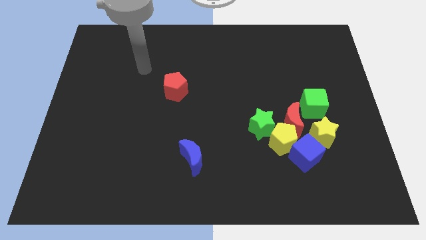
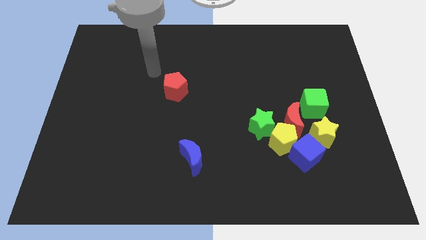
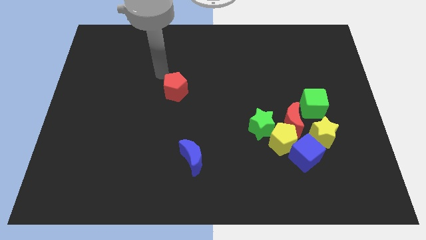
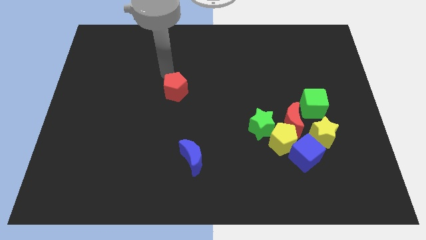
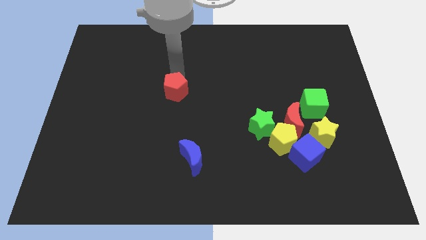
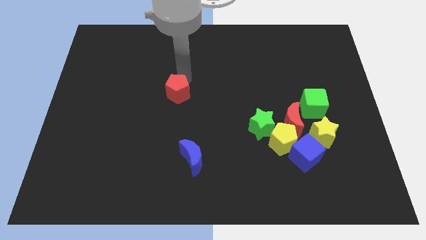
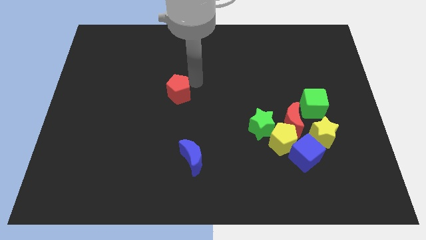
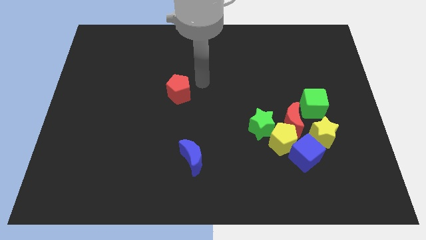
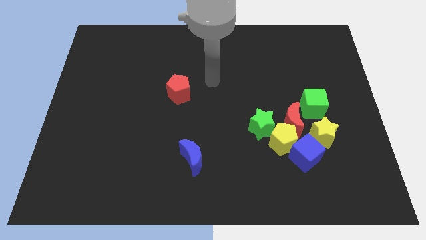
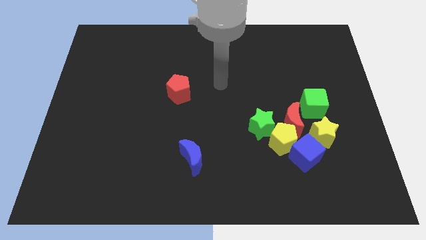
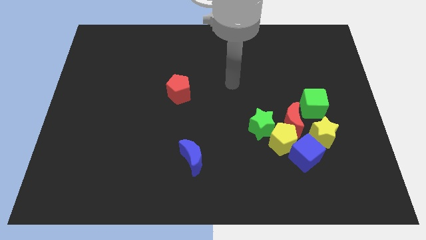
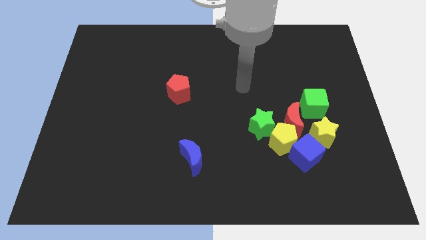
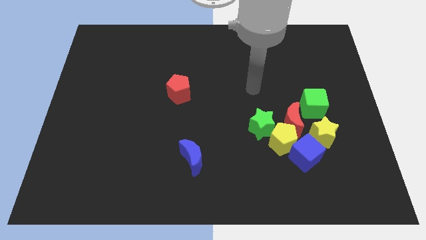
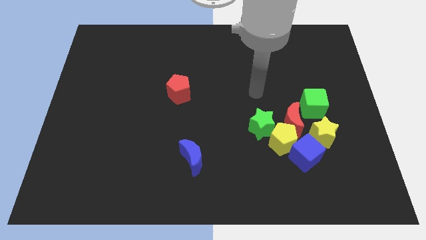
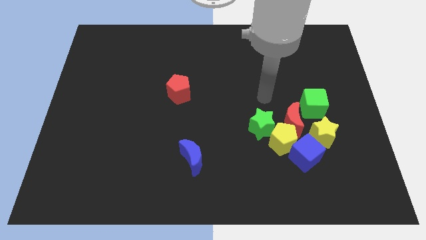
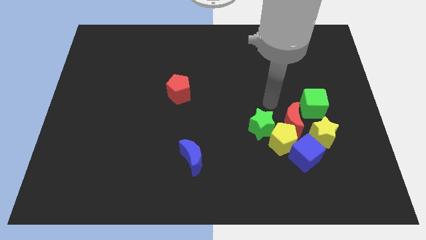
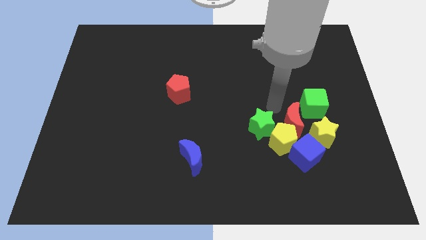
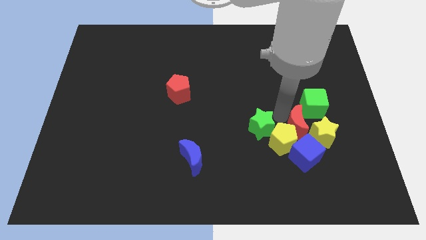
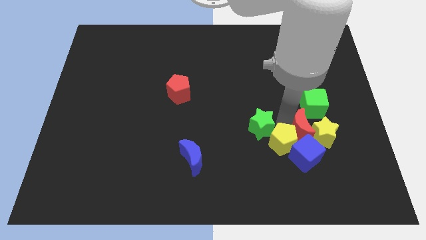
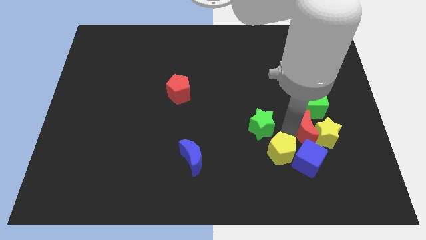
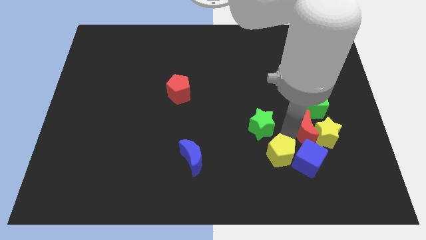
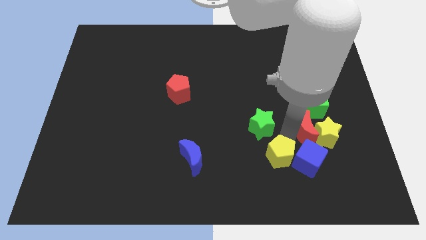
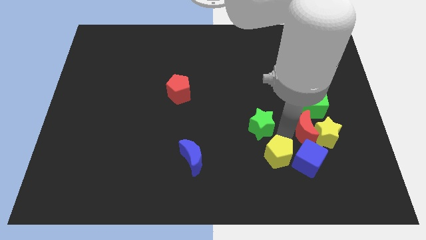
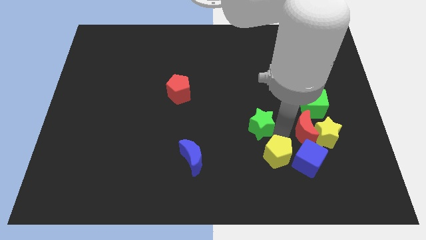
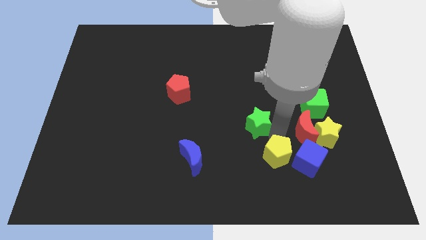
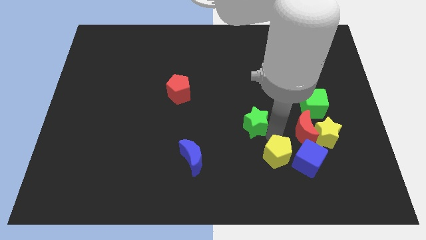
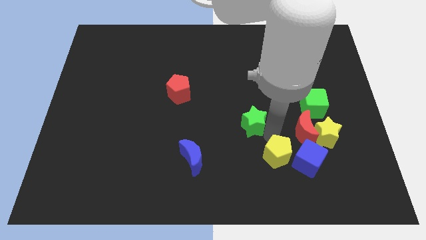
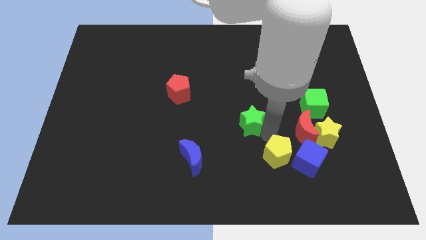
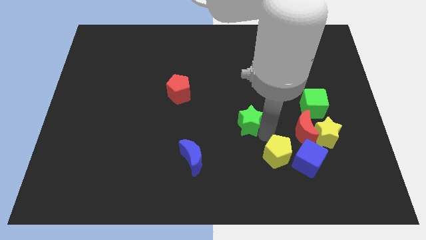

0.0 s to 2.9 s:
pull the green star apart from the yellow pentagon and red moon

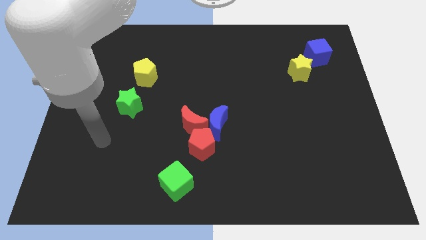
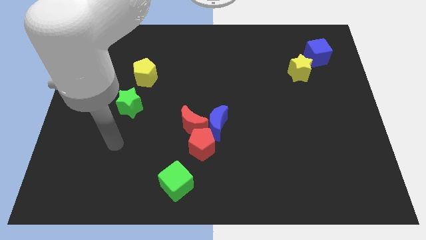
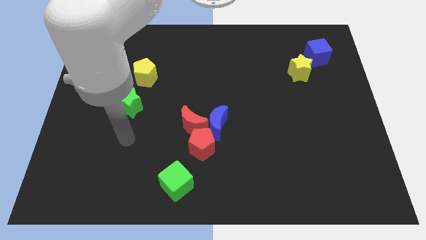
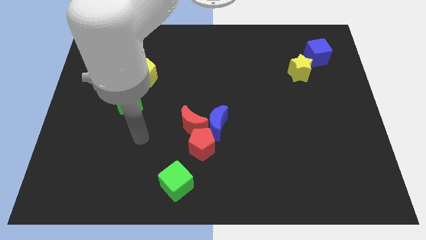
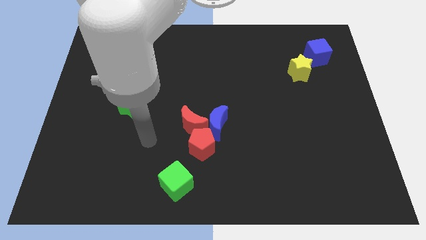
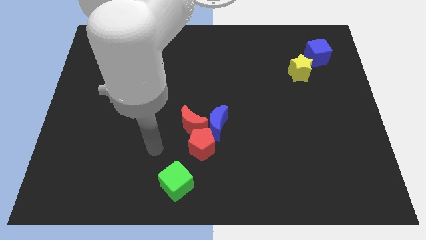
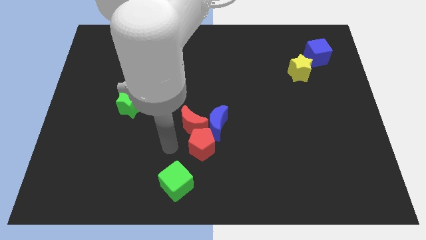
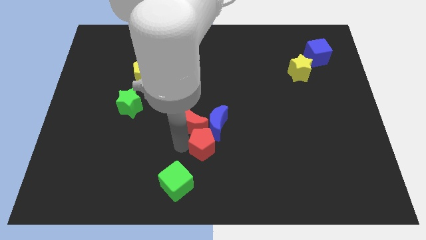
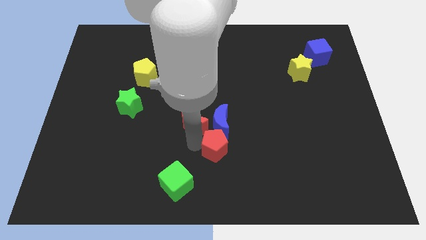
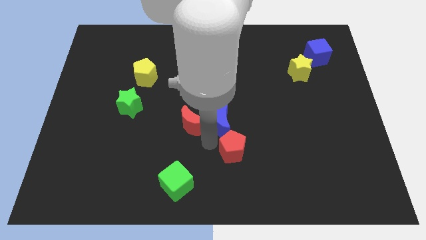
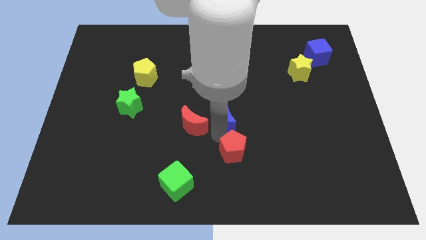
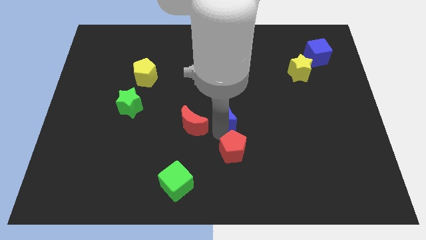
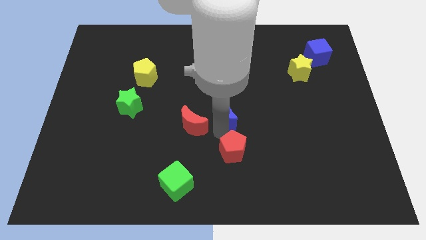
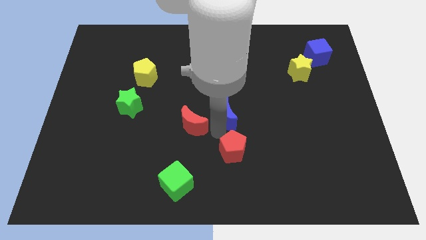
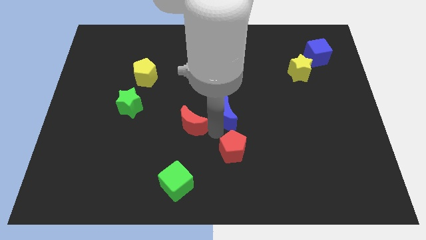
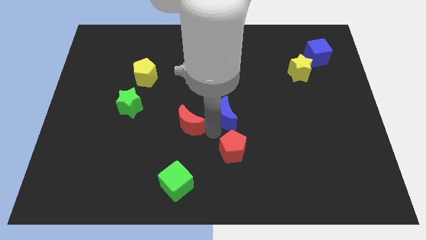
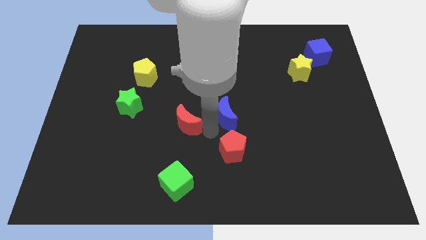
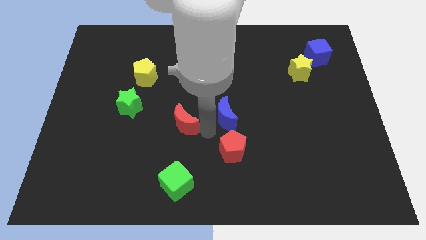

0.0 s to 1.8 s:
separate the red moon from the blue moon and red pentagon

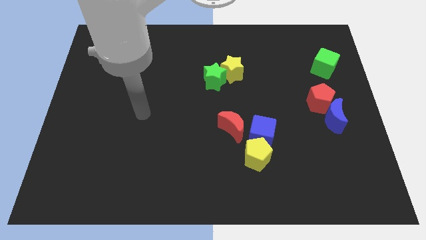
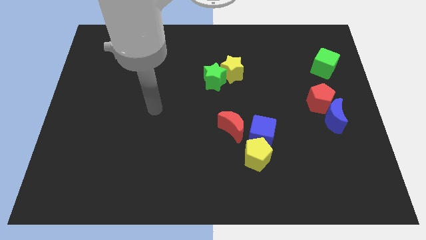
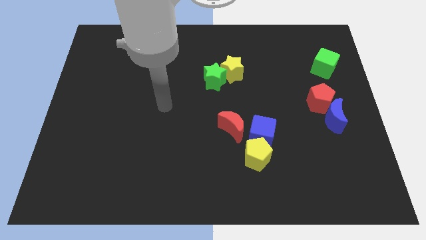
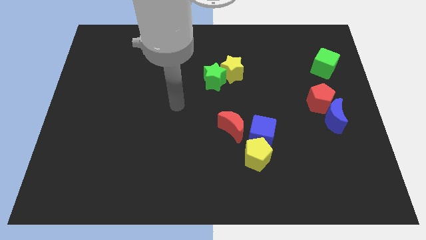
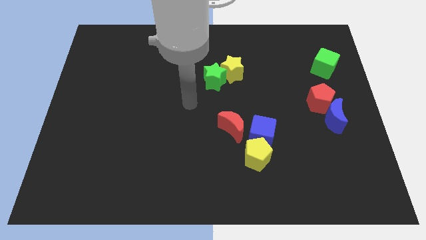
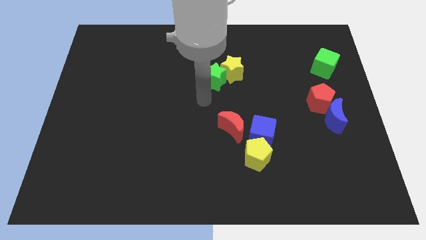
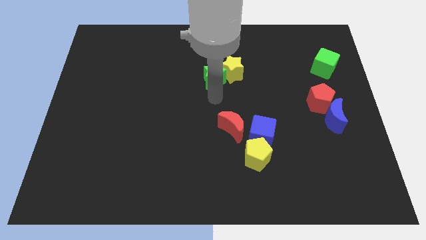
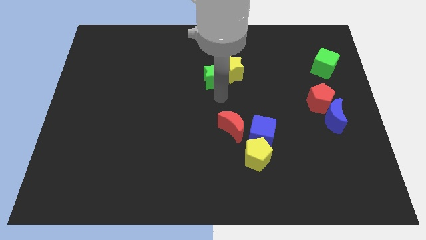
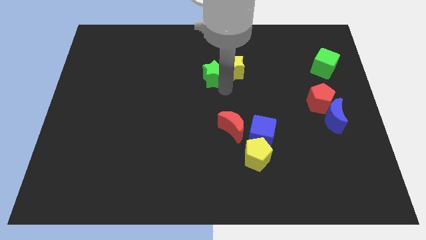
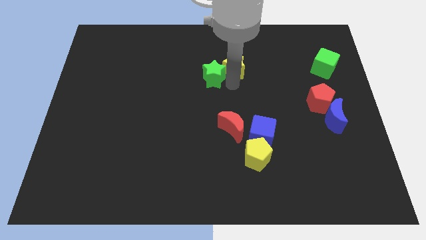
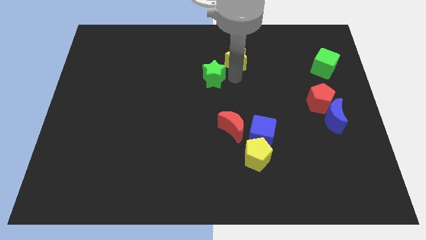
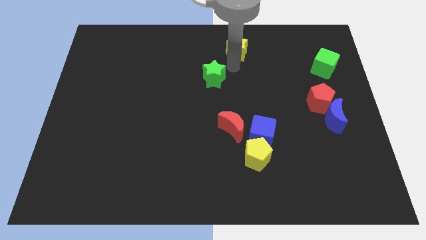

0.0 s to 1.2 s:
move the green star away from the yellow star

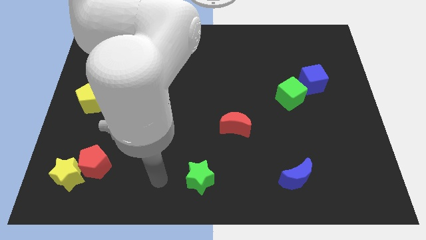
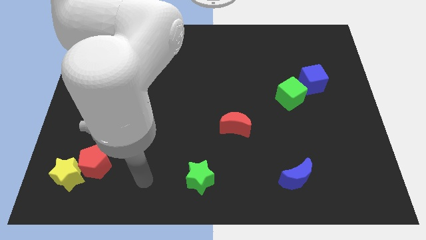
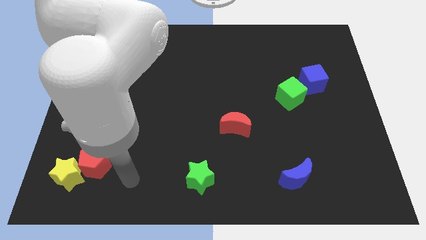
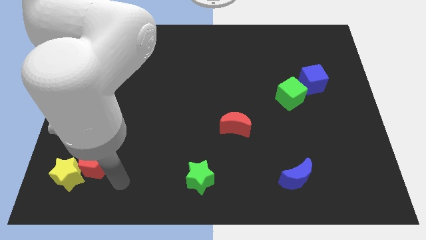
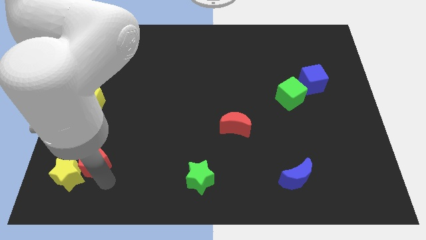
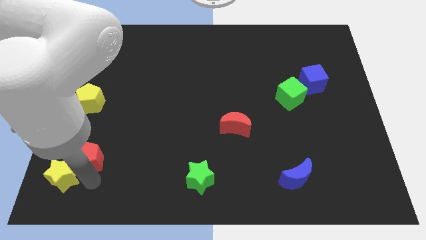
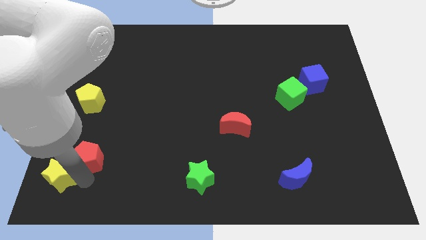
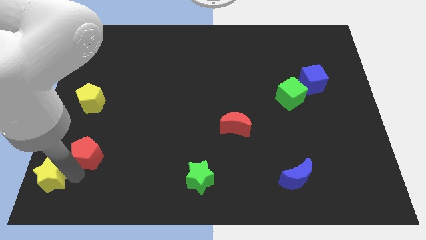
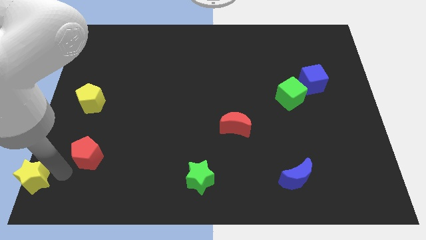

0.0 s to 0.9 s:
pull the red pentagon apart from the yellow star

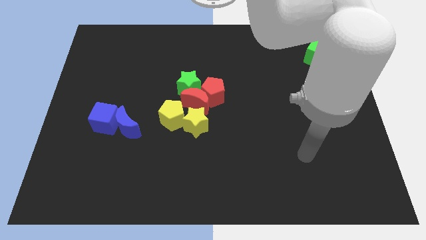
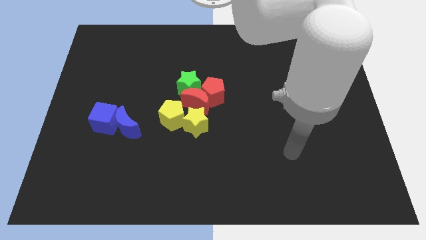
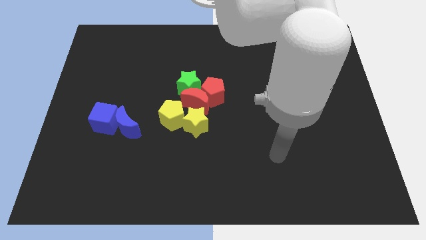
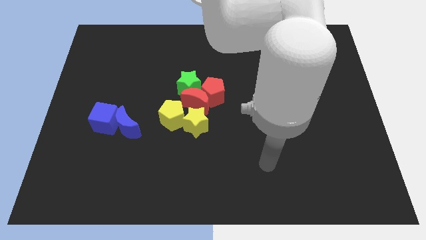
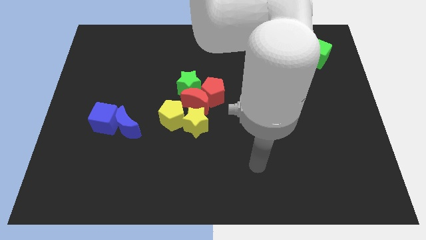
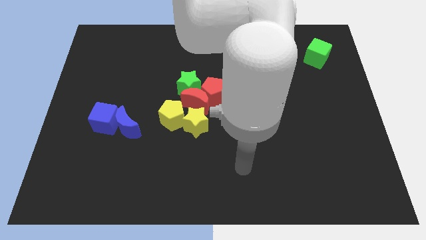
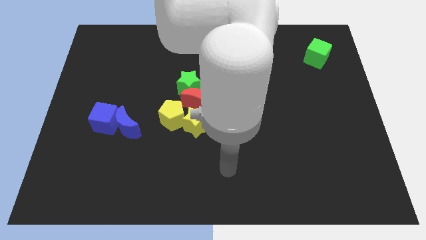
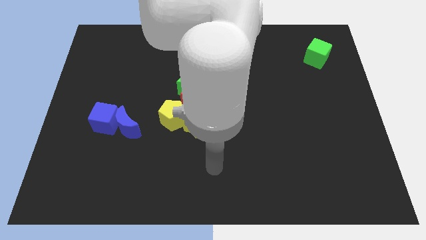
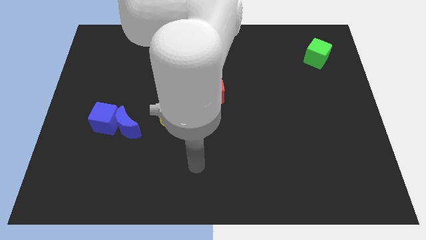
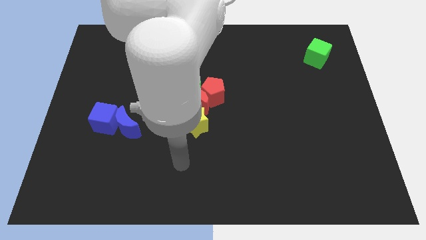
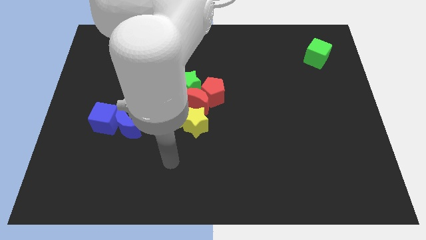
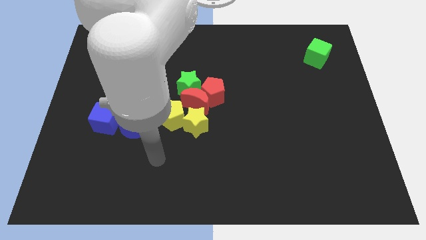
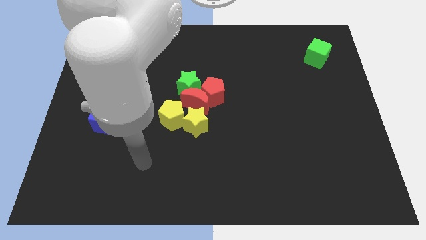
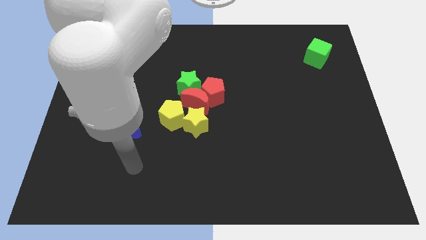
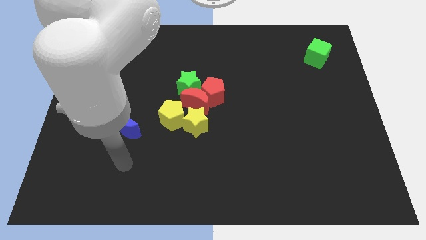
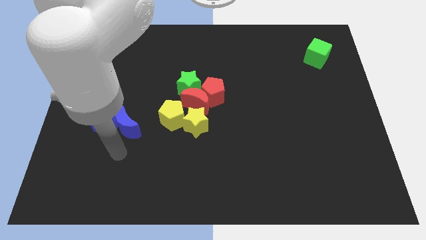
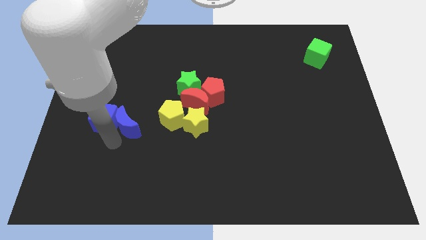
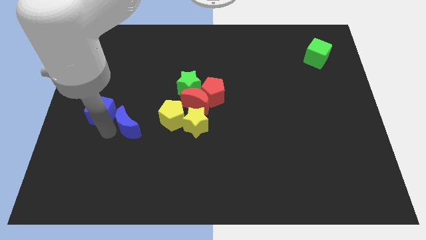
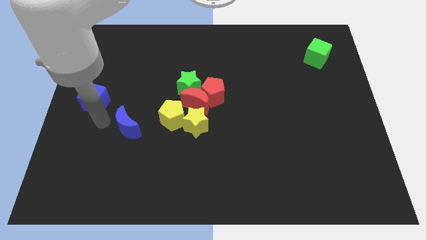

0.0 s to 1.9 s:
separate the blue moon from the blue cube

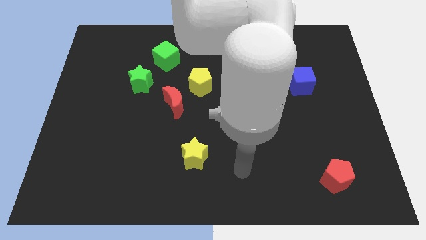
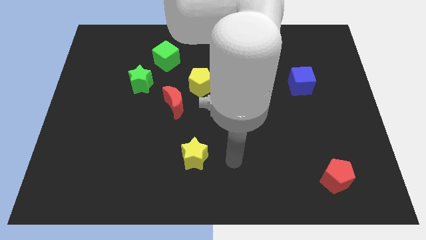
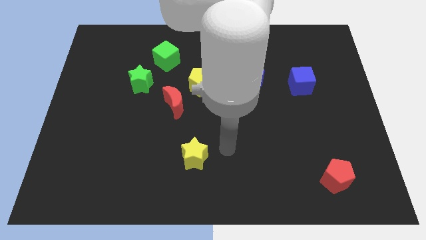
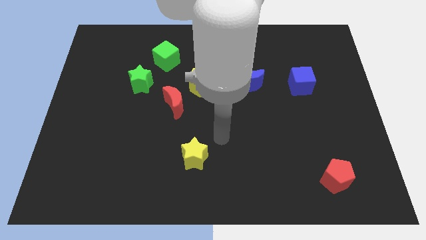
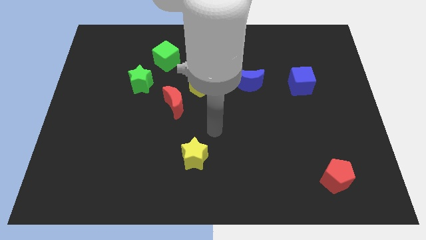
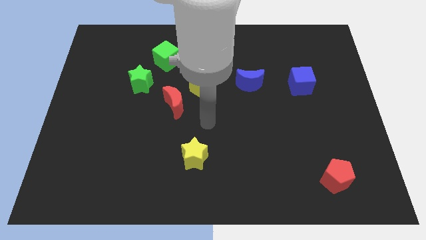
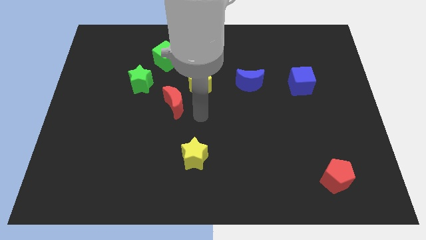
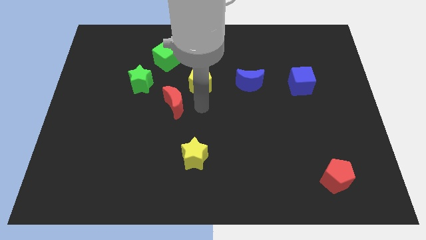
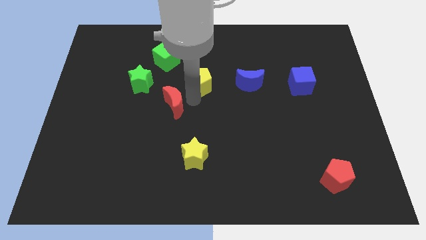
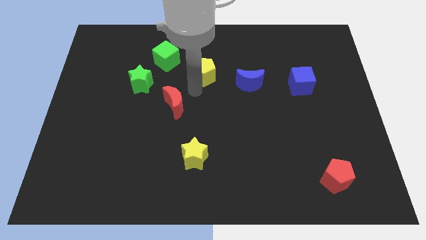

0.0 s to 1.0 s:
separate the red moon from the yellow pentagon
